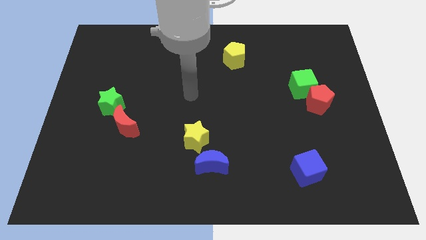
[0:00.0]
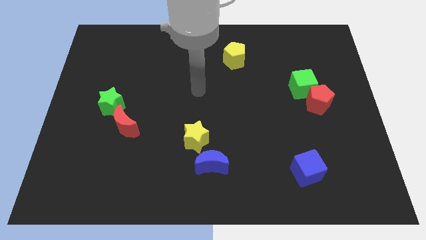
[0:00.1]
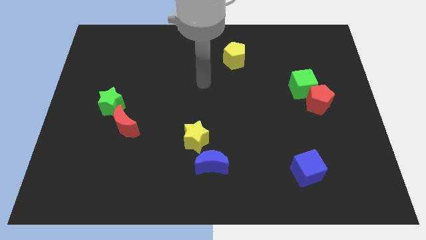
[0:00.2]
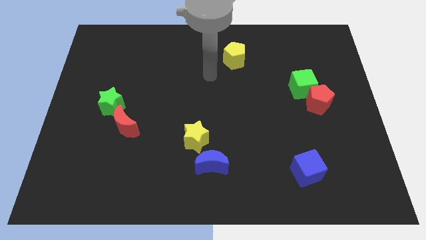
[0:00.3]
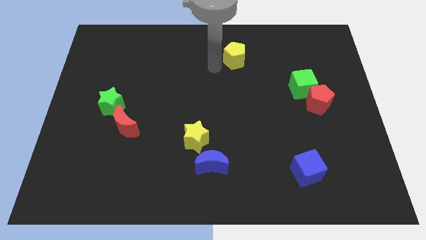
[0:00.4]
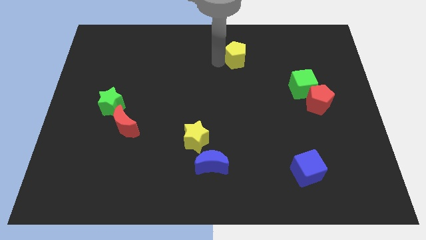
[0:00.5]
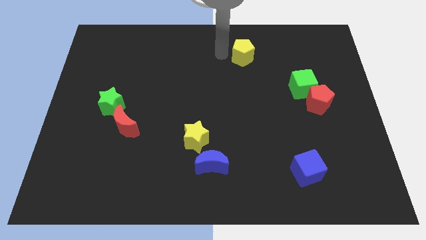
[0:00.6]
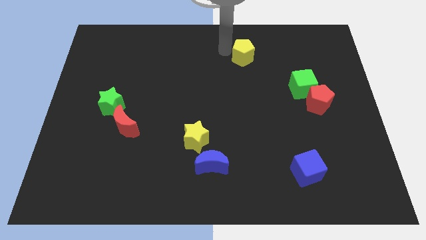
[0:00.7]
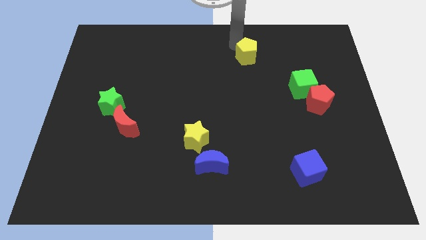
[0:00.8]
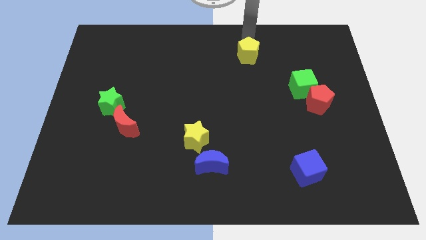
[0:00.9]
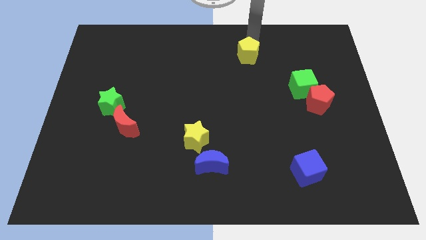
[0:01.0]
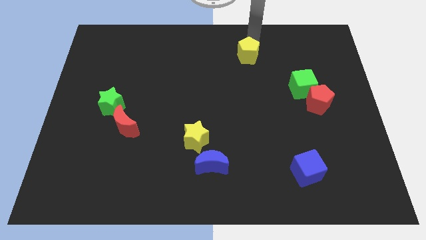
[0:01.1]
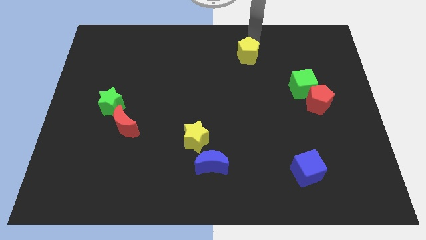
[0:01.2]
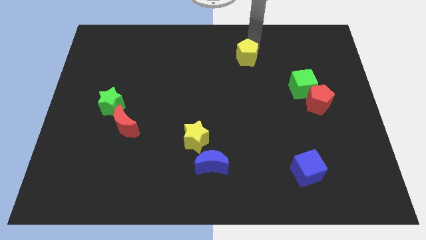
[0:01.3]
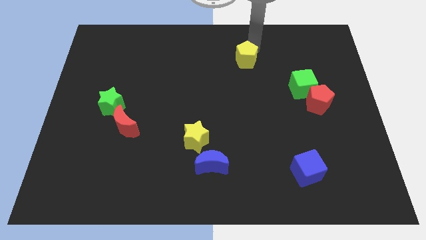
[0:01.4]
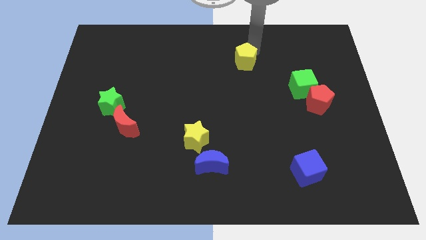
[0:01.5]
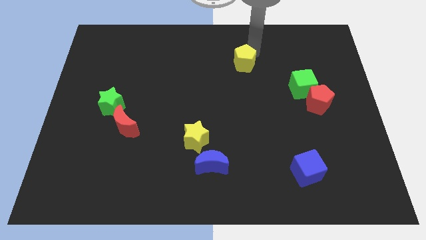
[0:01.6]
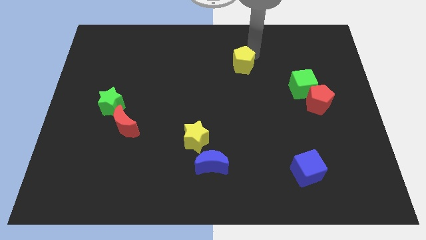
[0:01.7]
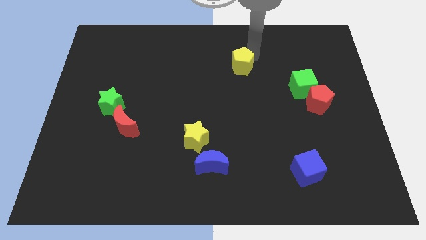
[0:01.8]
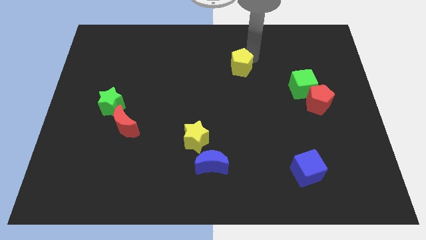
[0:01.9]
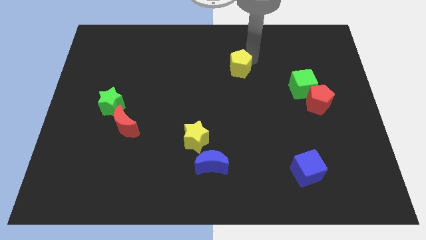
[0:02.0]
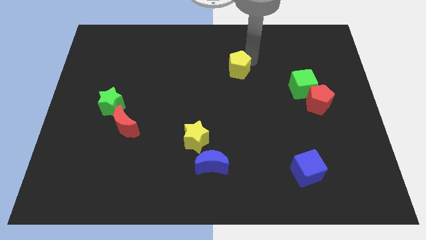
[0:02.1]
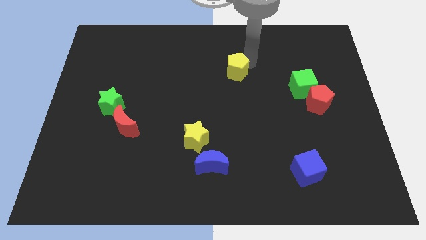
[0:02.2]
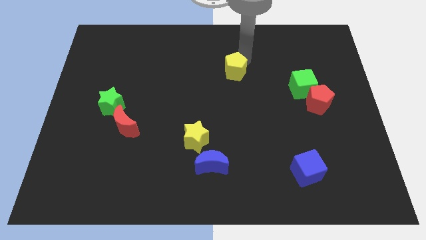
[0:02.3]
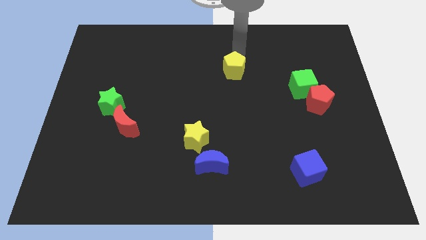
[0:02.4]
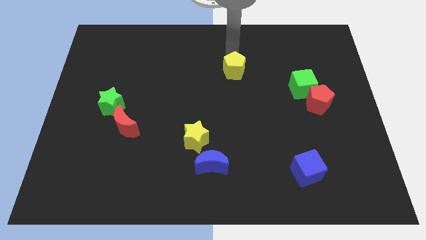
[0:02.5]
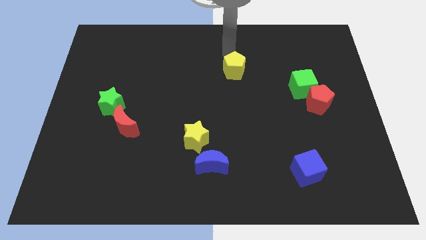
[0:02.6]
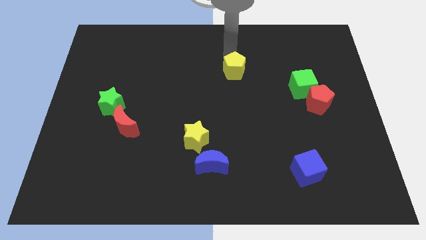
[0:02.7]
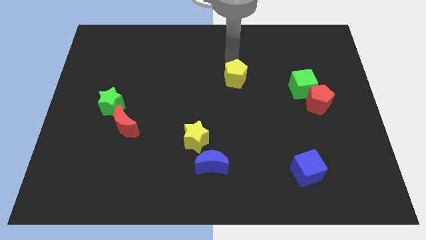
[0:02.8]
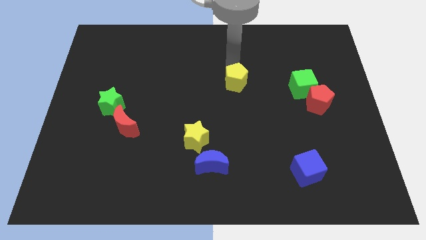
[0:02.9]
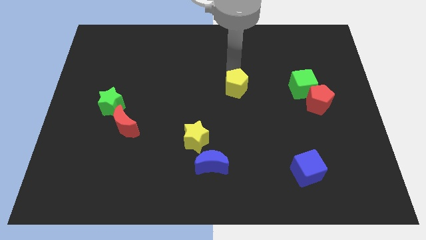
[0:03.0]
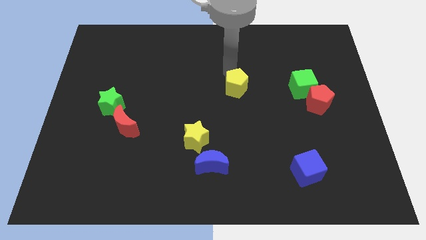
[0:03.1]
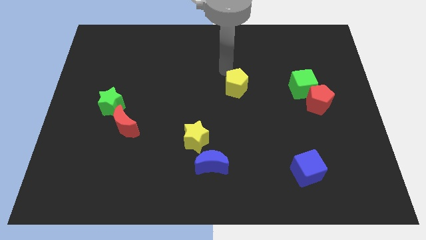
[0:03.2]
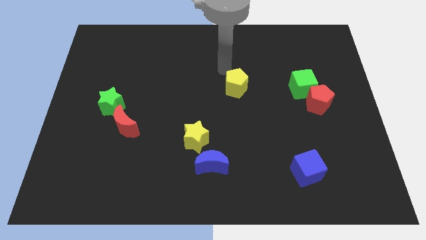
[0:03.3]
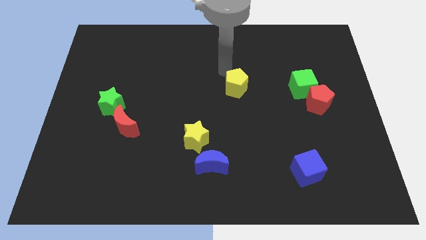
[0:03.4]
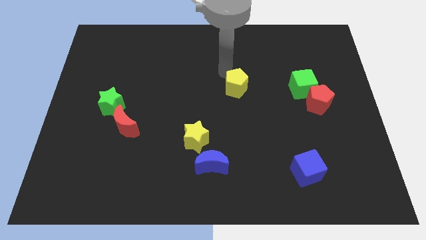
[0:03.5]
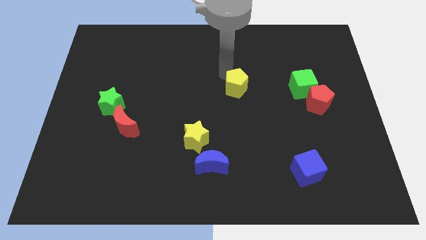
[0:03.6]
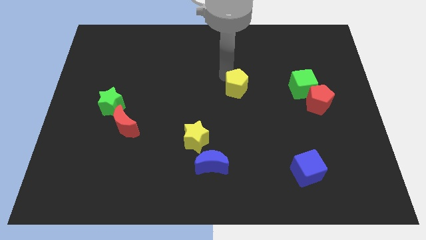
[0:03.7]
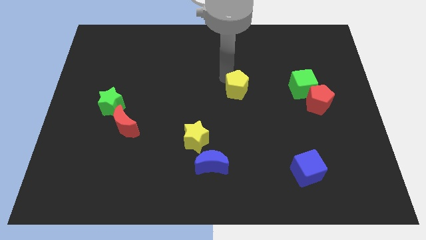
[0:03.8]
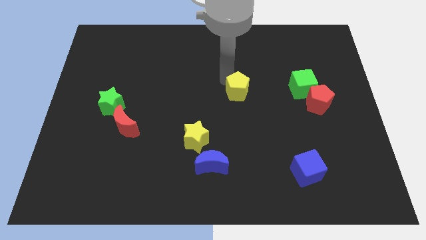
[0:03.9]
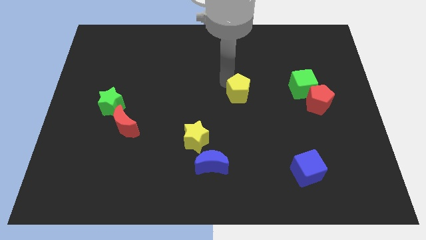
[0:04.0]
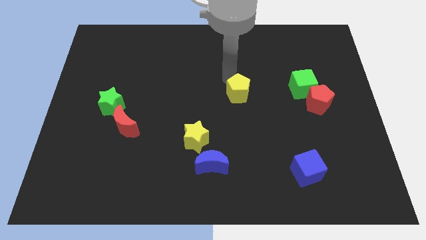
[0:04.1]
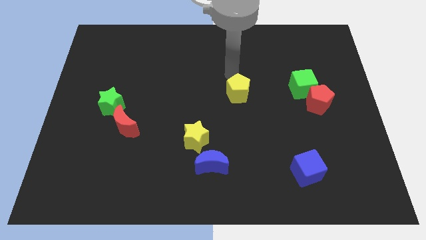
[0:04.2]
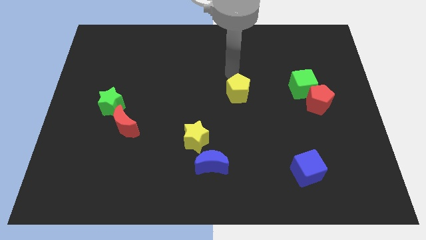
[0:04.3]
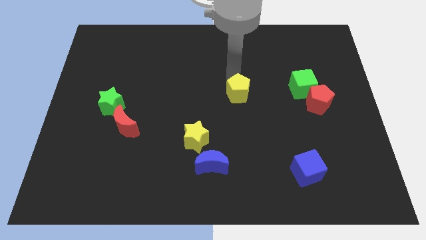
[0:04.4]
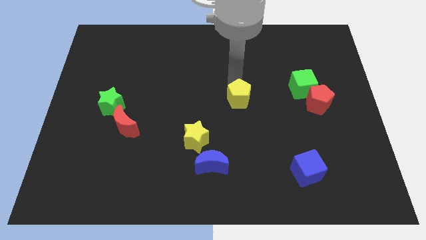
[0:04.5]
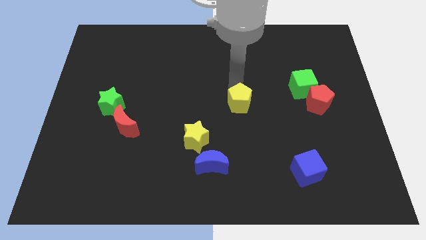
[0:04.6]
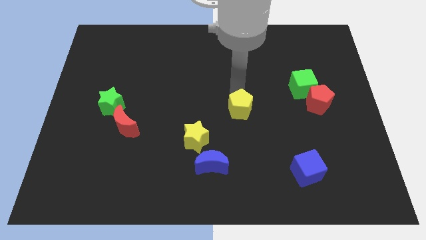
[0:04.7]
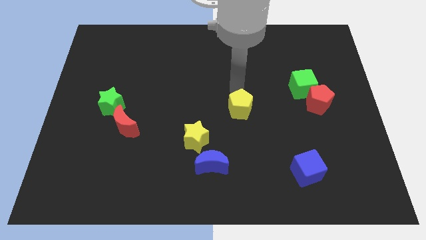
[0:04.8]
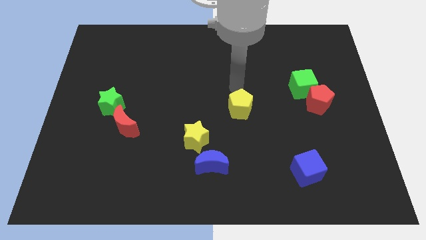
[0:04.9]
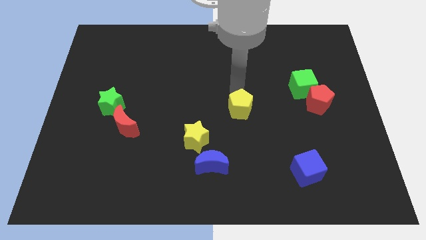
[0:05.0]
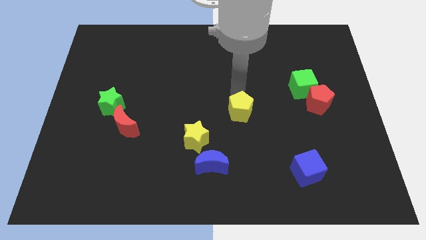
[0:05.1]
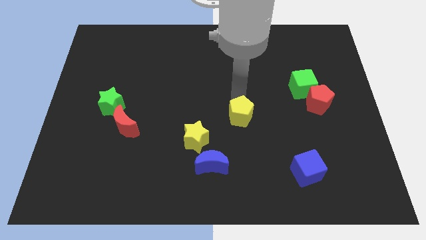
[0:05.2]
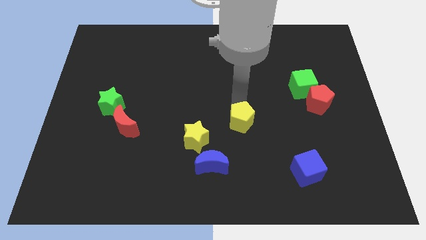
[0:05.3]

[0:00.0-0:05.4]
move the yellow pentagon down

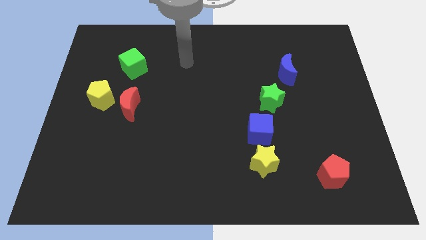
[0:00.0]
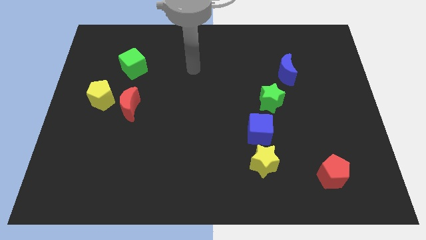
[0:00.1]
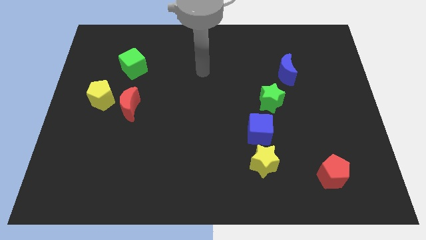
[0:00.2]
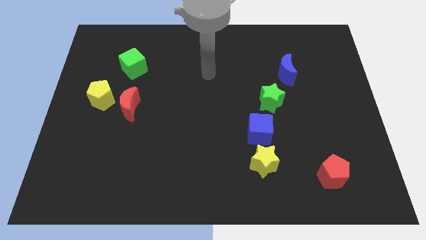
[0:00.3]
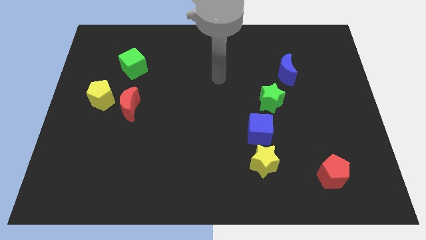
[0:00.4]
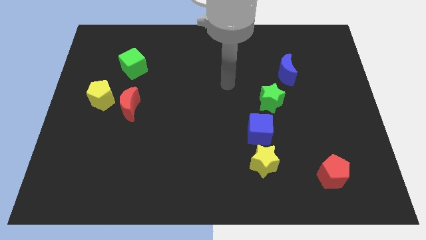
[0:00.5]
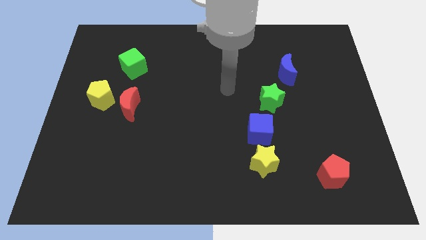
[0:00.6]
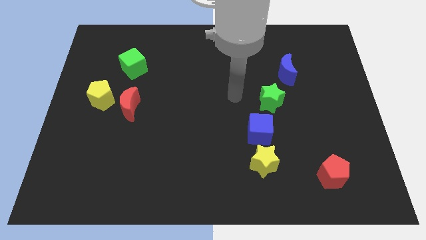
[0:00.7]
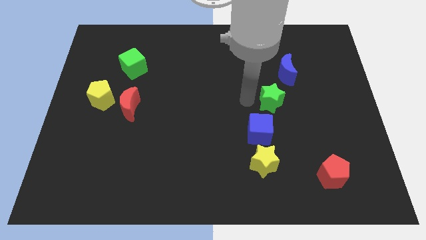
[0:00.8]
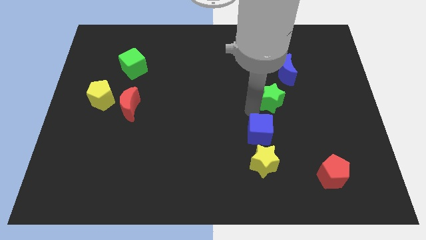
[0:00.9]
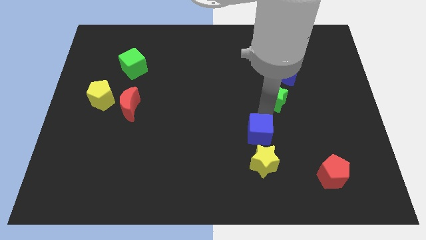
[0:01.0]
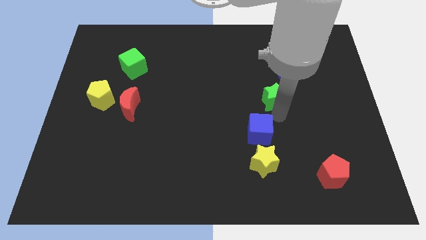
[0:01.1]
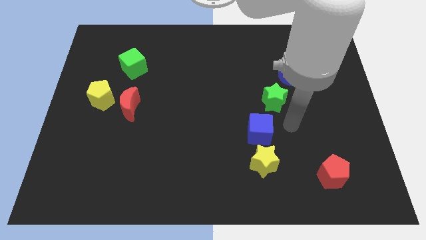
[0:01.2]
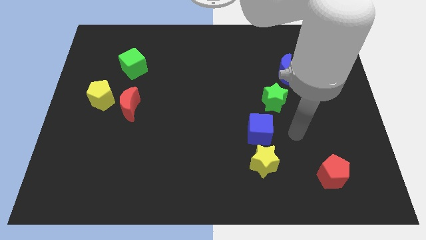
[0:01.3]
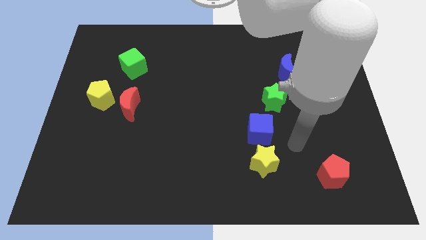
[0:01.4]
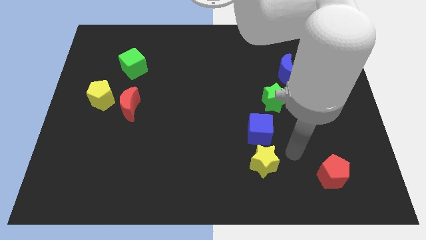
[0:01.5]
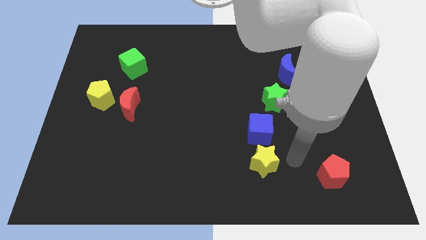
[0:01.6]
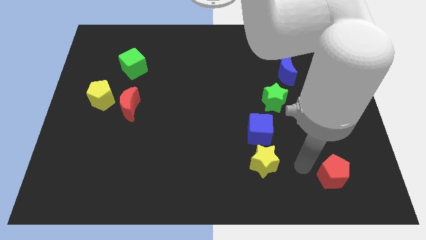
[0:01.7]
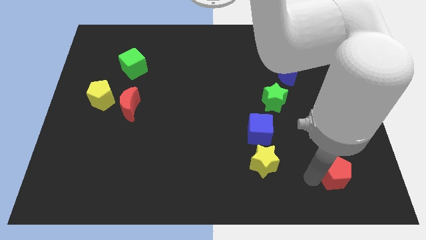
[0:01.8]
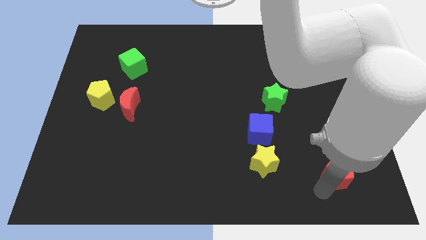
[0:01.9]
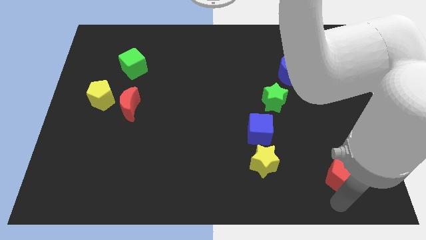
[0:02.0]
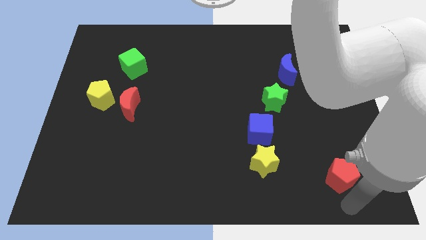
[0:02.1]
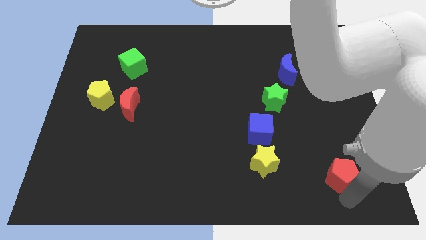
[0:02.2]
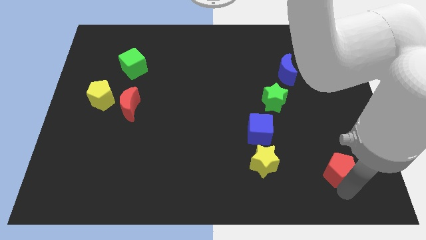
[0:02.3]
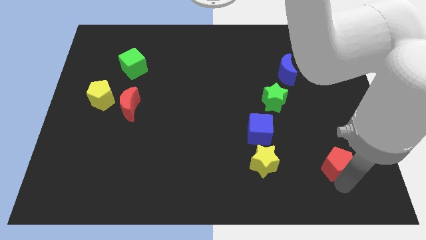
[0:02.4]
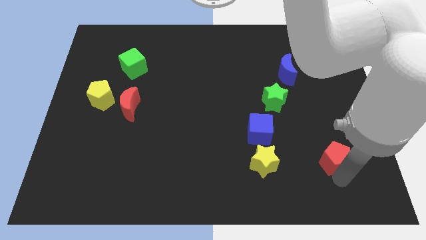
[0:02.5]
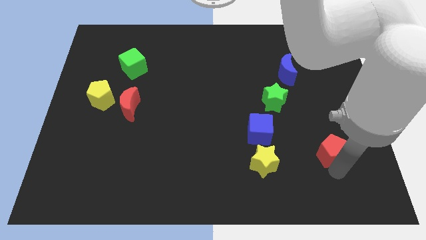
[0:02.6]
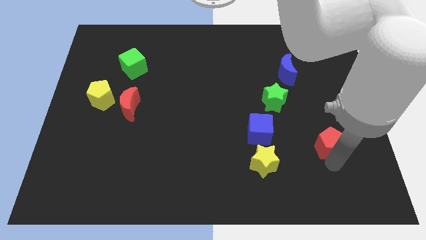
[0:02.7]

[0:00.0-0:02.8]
slightly move the red pentagon upwards

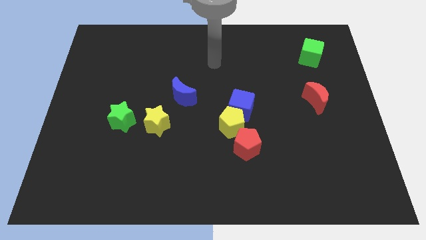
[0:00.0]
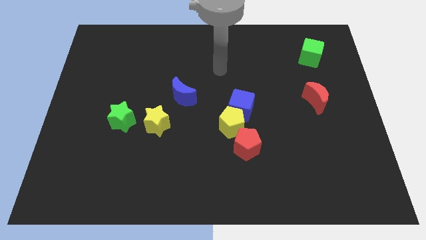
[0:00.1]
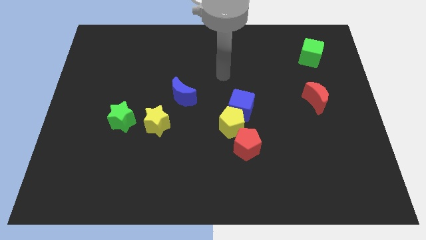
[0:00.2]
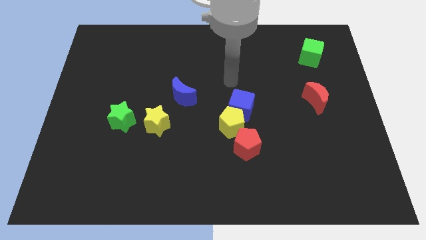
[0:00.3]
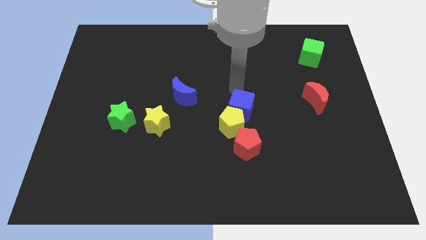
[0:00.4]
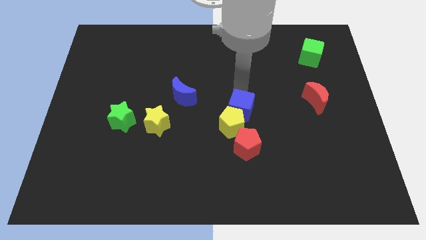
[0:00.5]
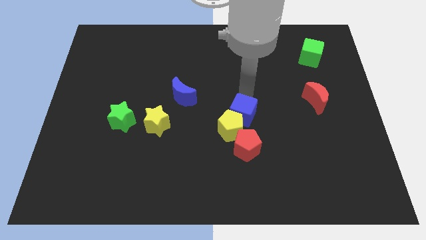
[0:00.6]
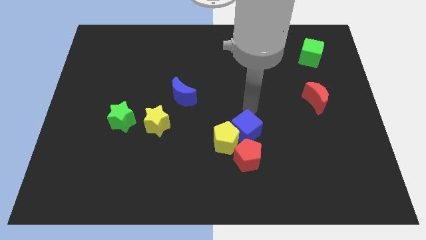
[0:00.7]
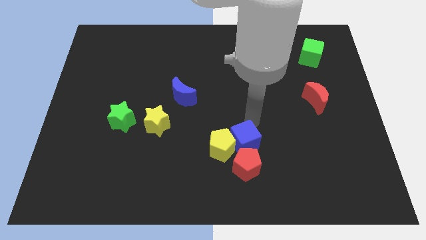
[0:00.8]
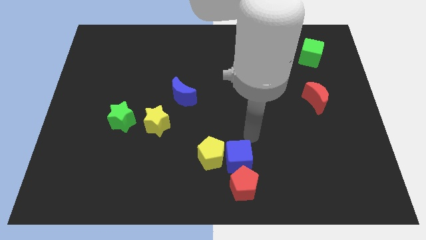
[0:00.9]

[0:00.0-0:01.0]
slightly push the yellow pentagon downwards and left
